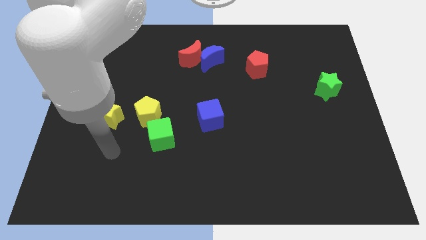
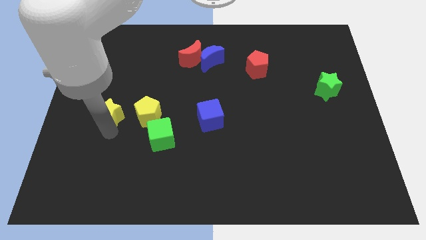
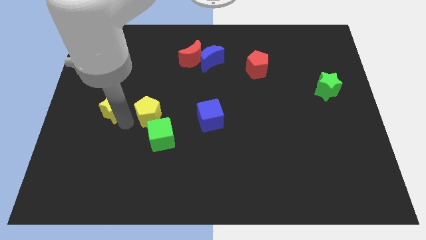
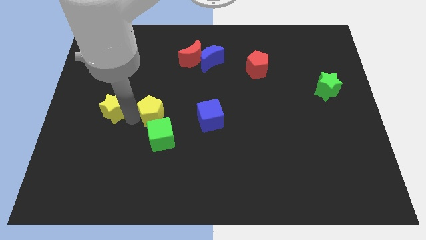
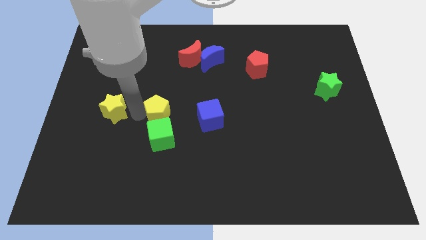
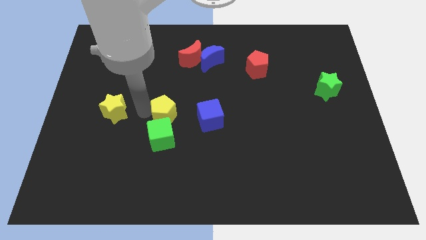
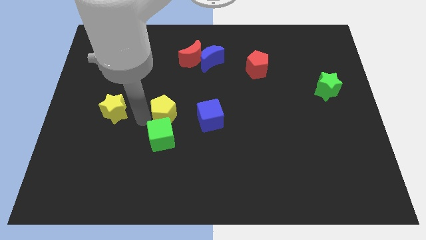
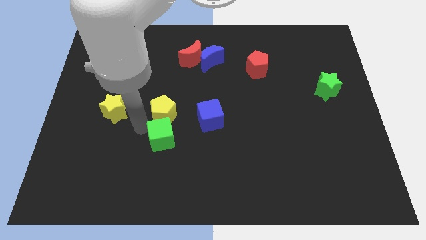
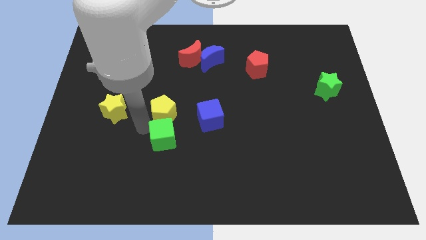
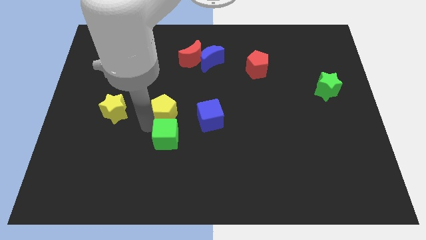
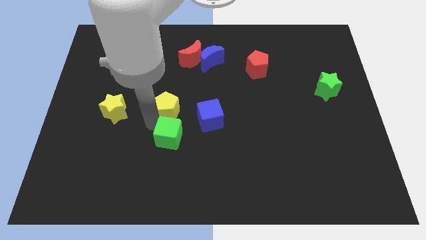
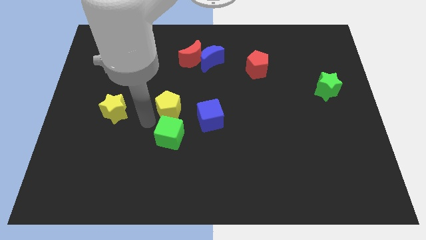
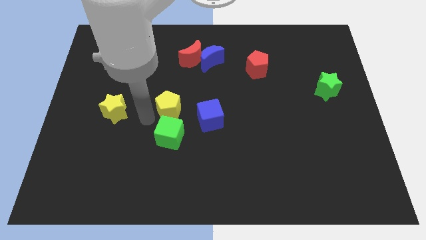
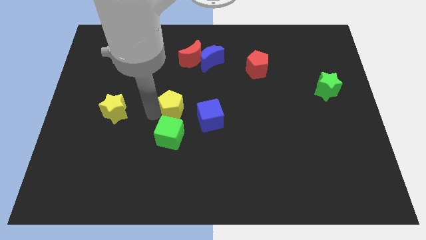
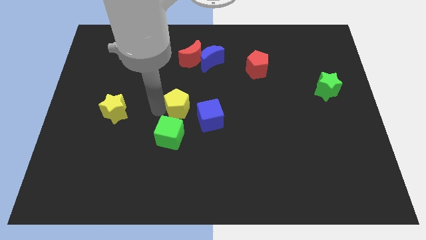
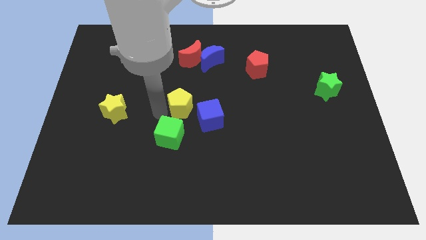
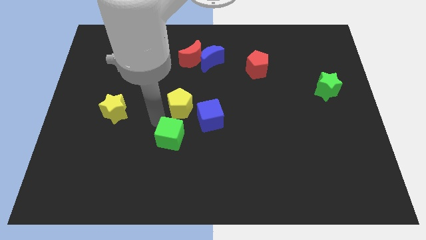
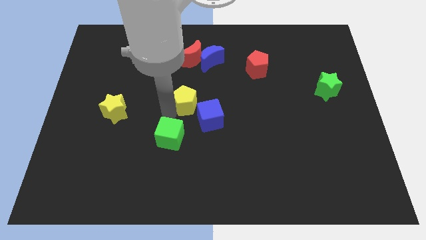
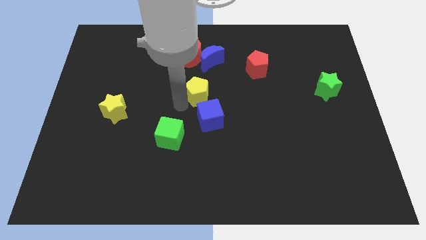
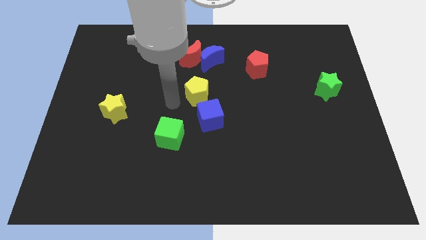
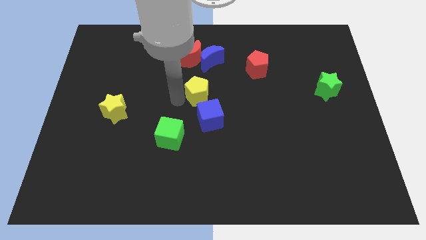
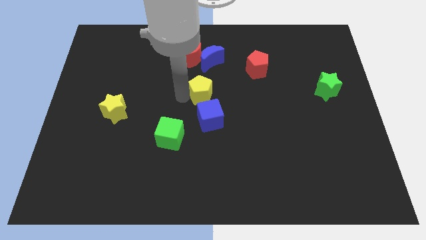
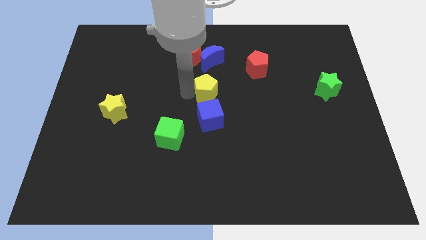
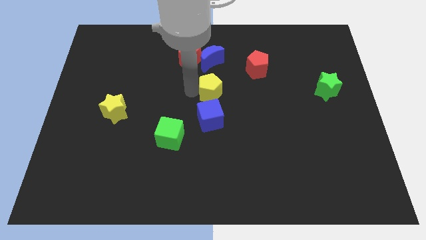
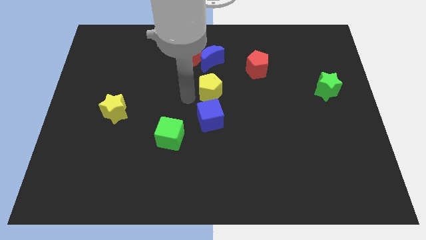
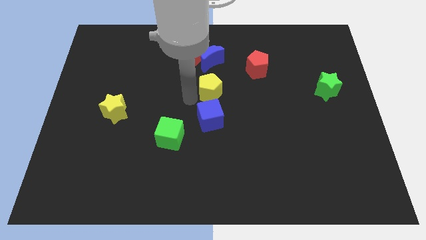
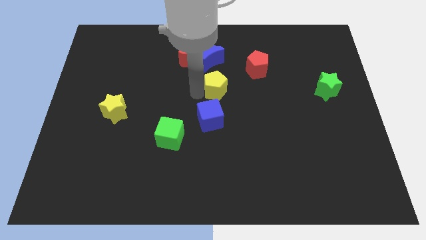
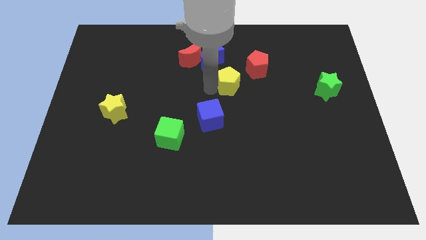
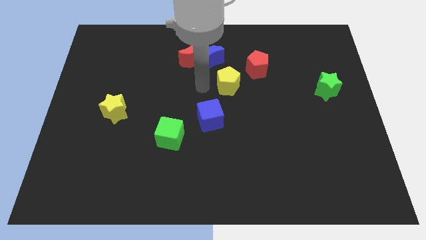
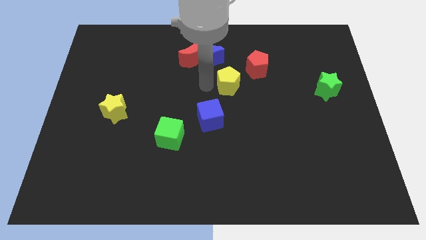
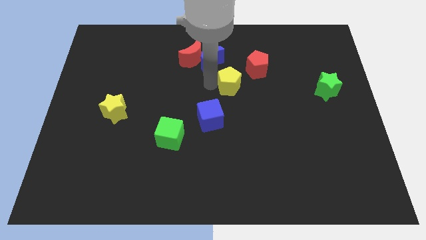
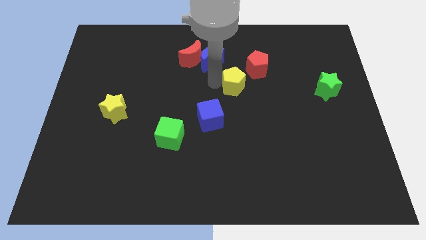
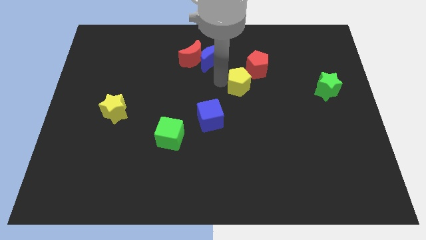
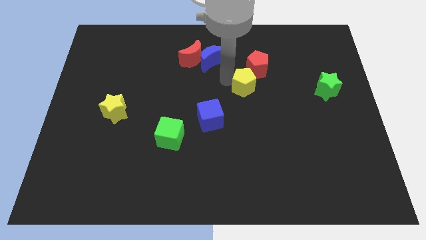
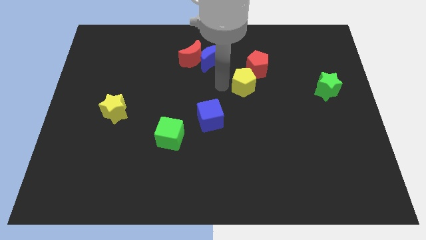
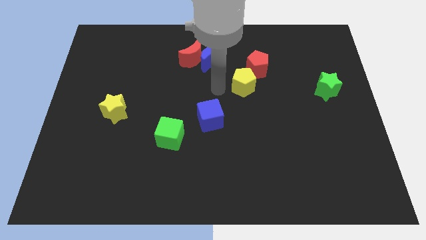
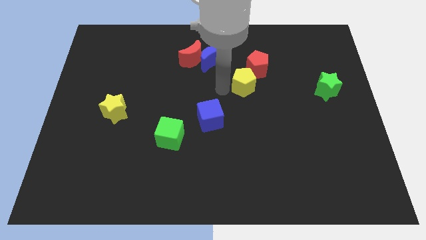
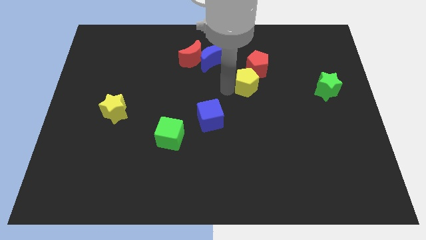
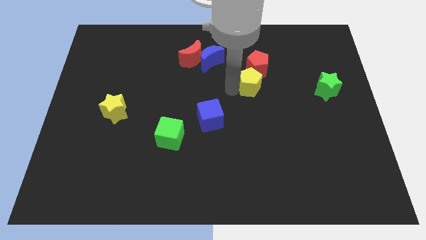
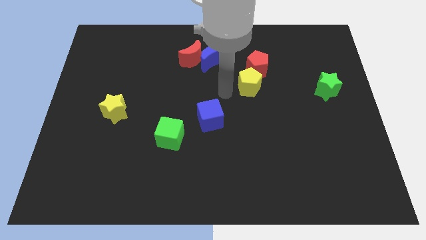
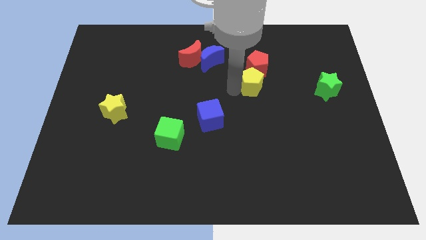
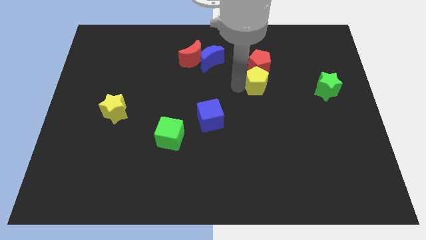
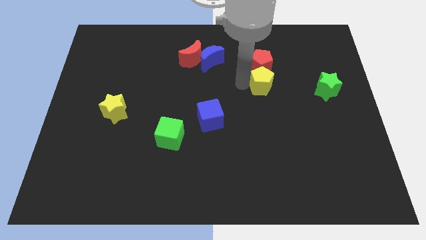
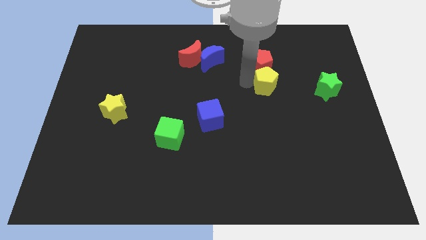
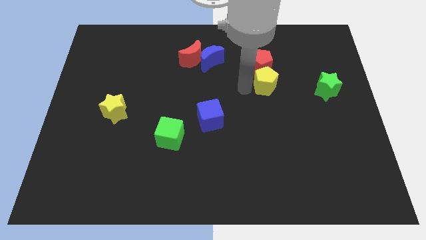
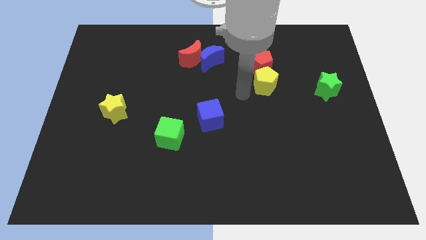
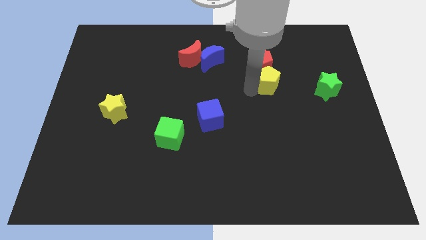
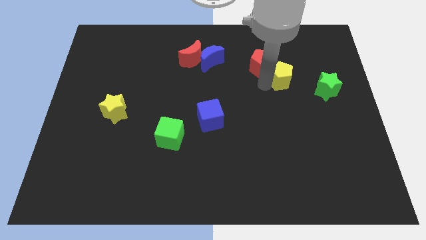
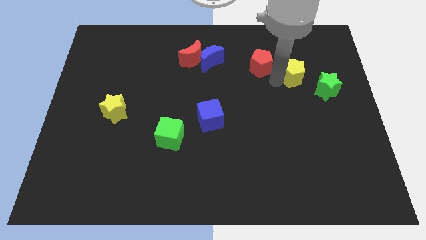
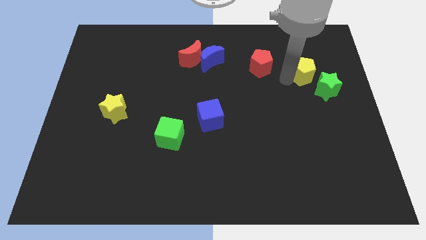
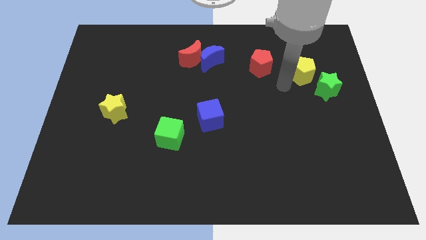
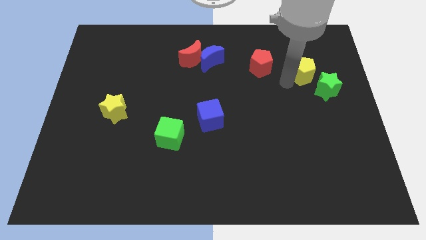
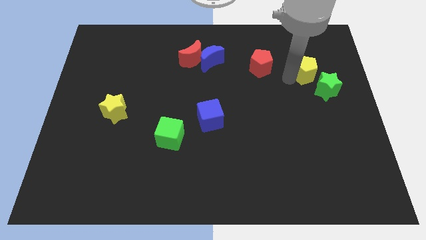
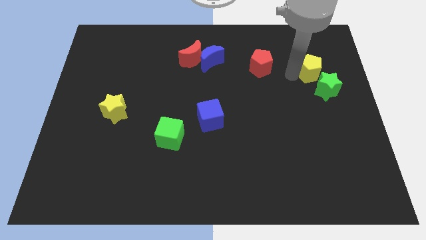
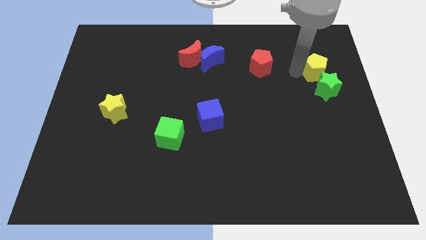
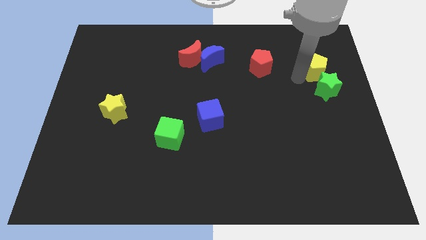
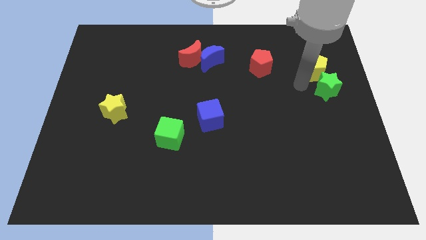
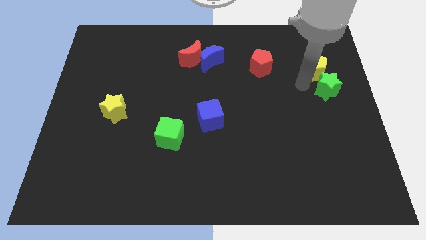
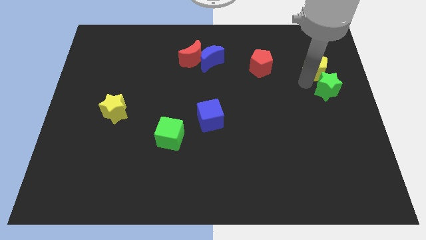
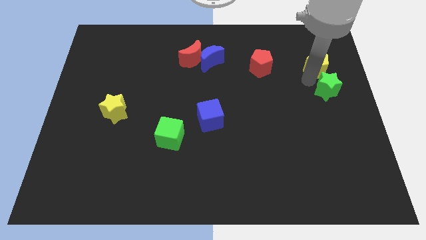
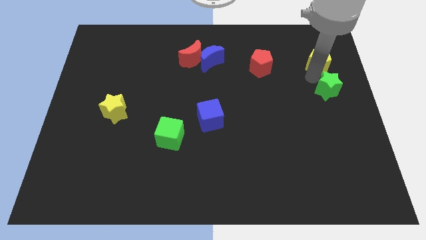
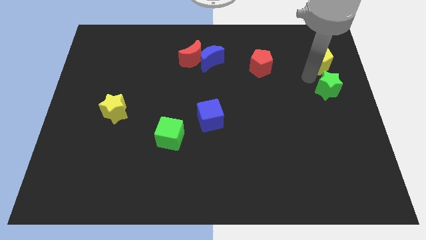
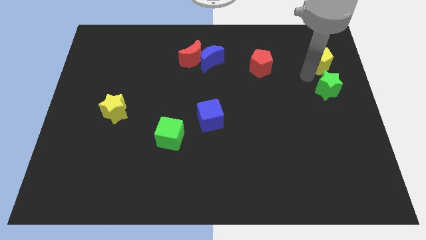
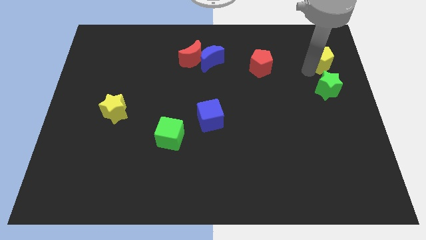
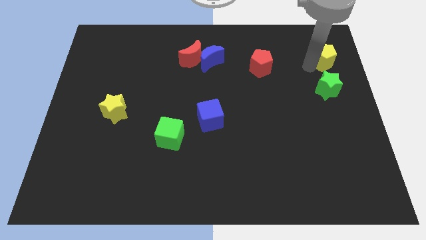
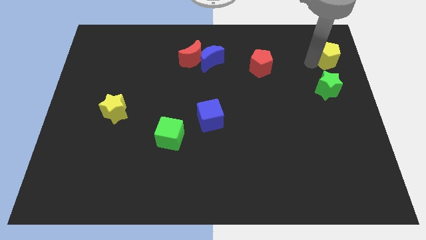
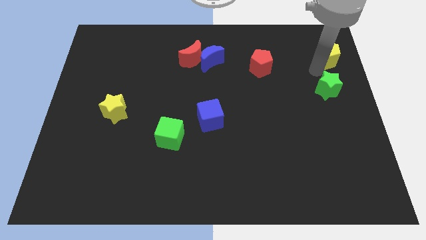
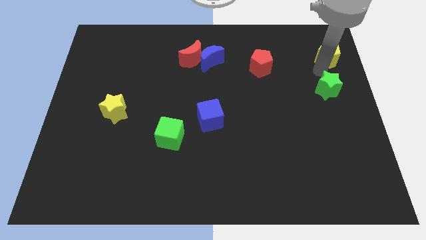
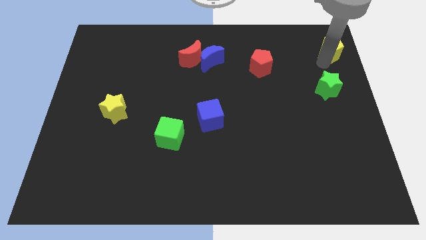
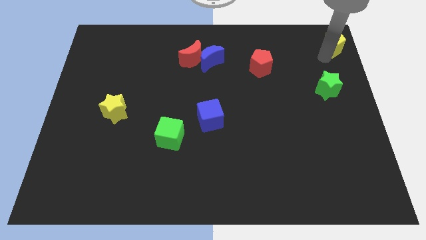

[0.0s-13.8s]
slide the yellow pentagon to the top right corner
